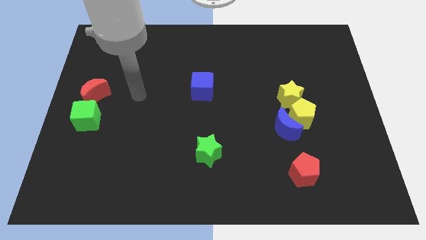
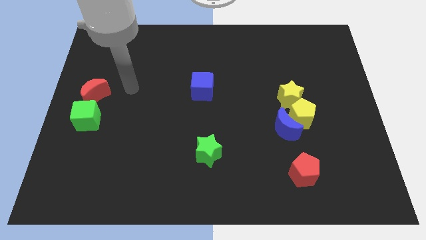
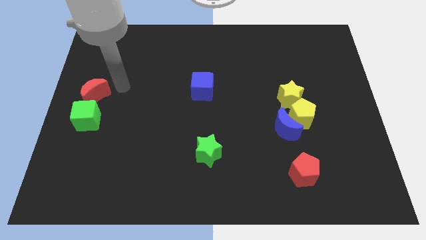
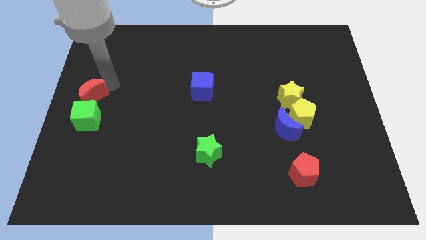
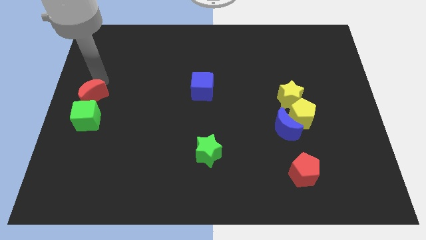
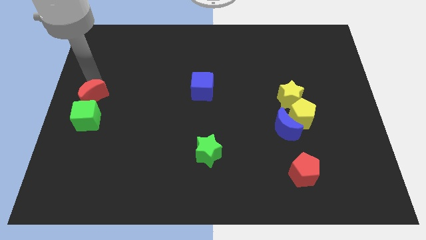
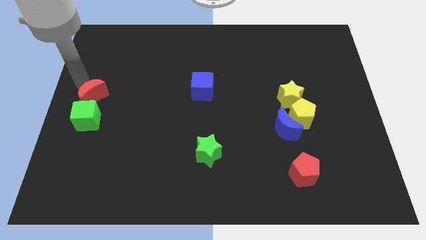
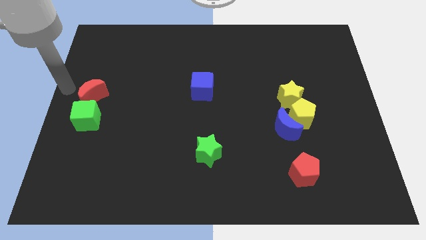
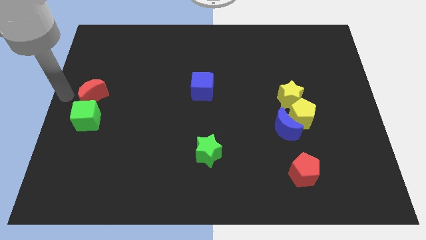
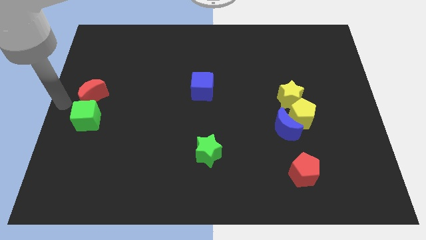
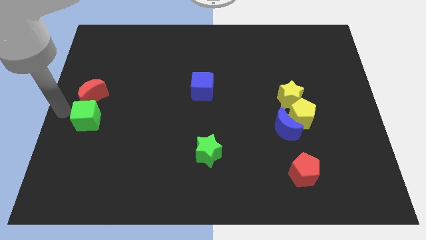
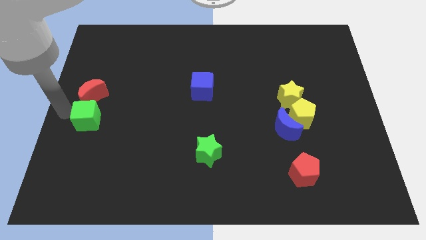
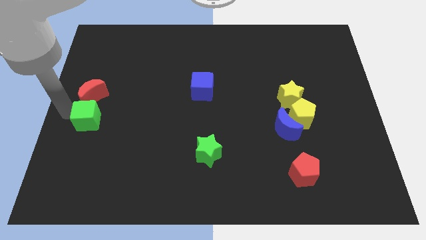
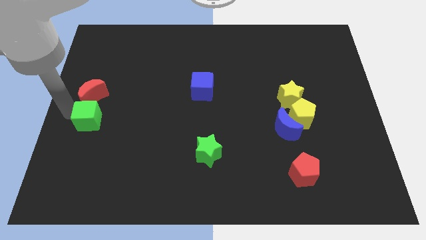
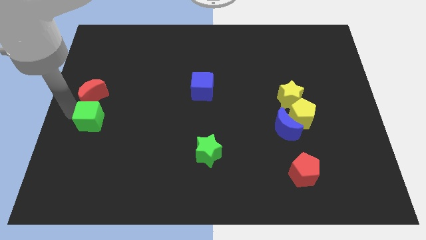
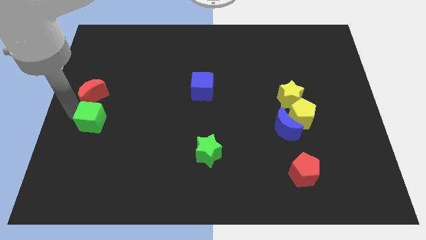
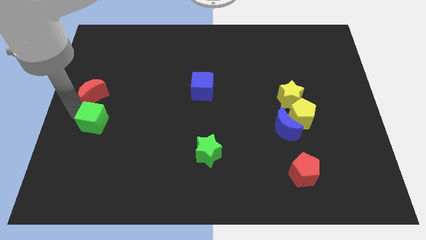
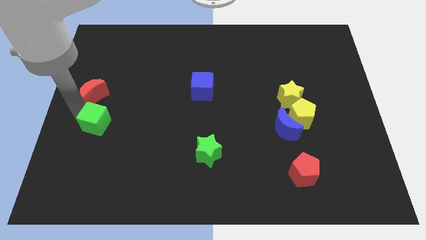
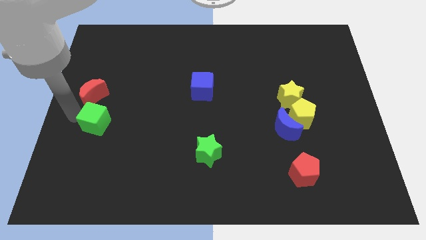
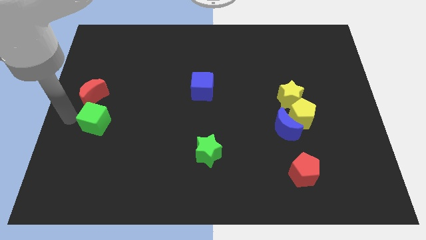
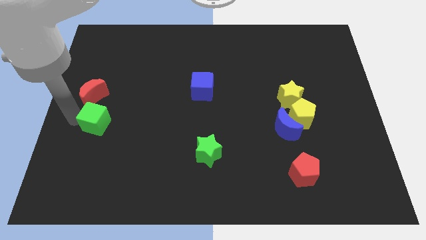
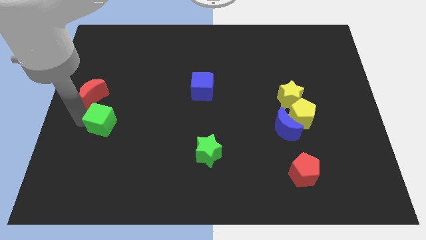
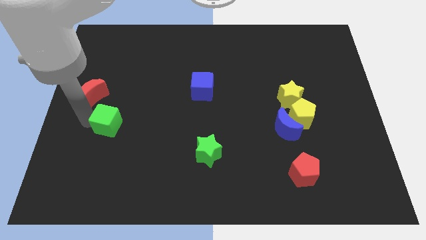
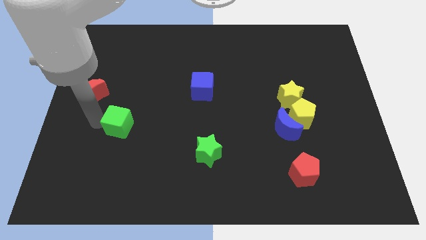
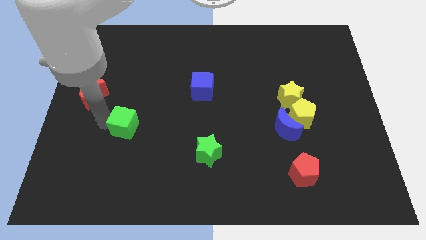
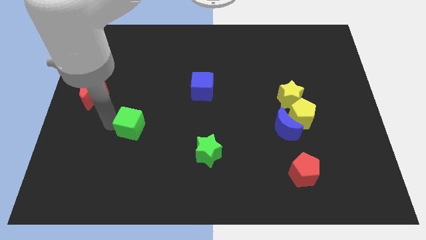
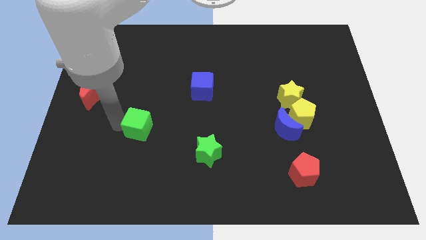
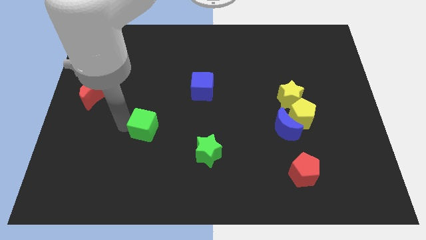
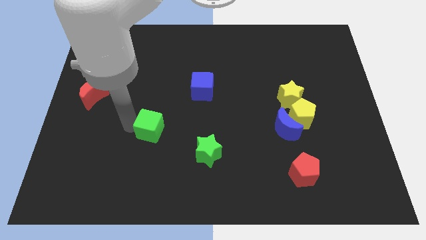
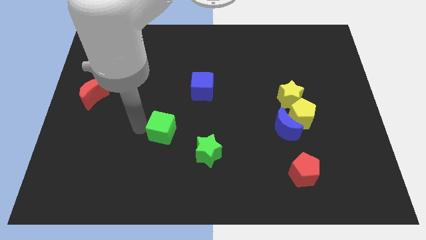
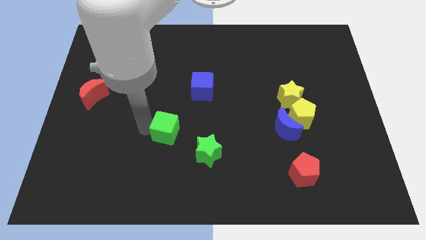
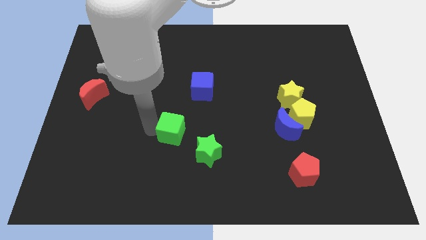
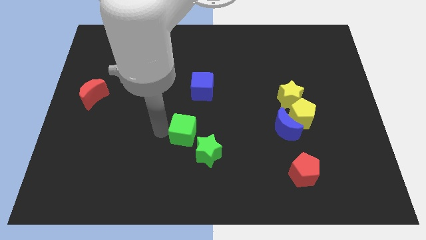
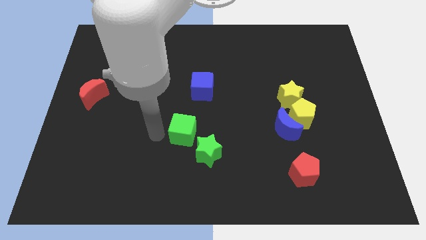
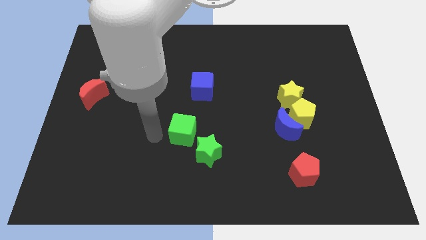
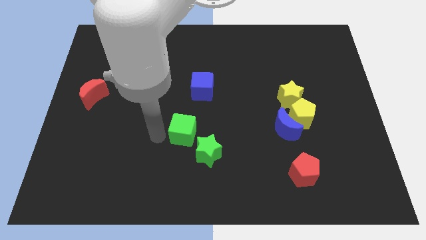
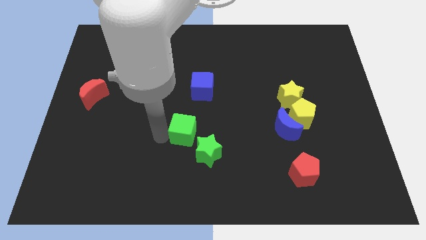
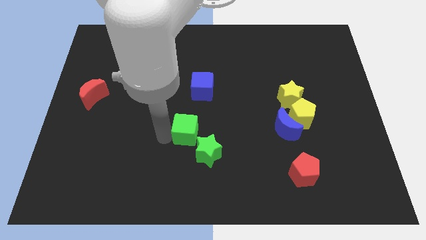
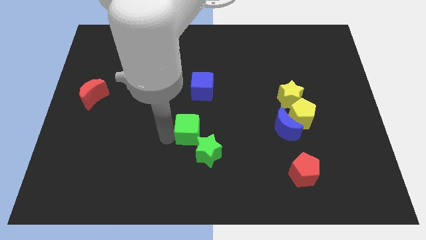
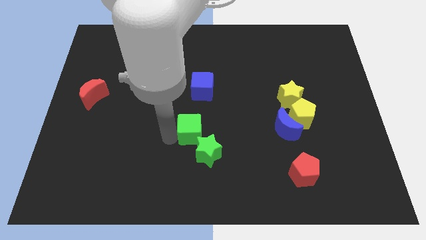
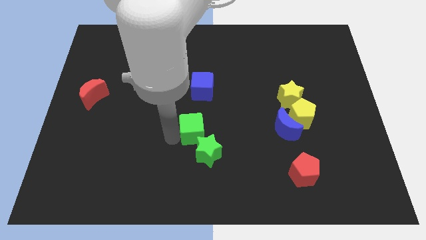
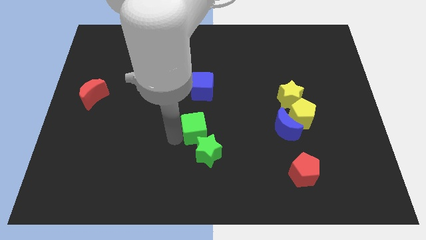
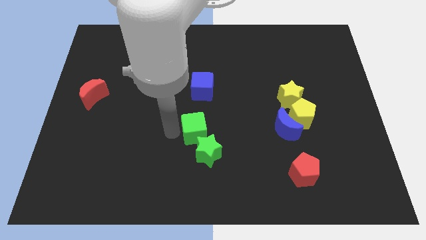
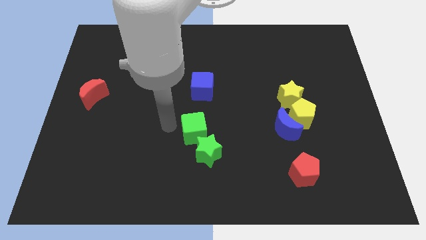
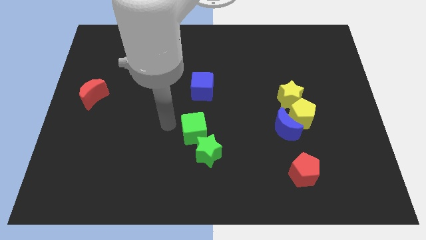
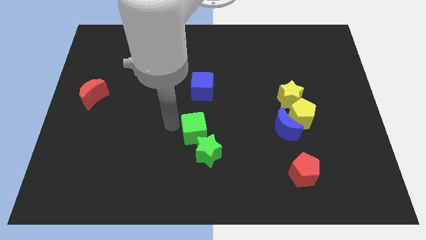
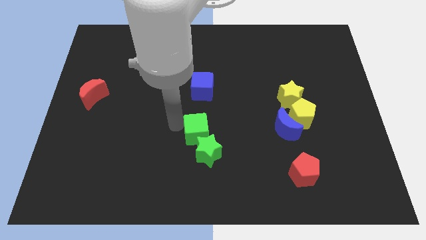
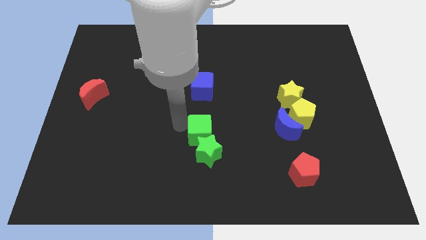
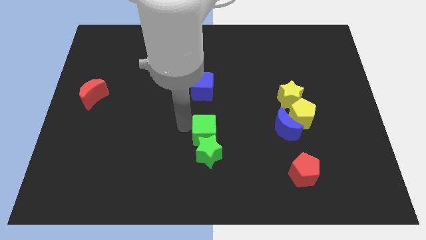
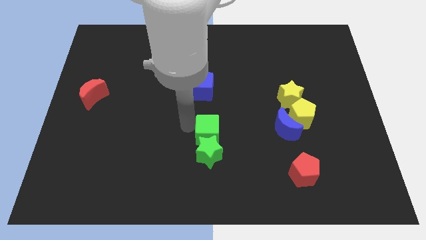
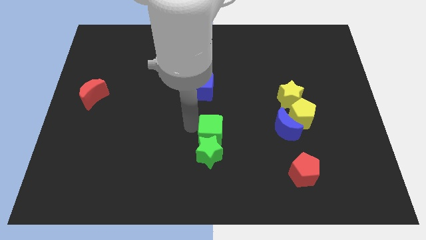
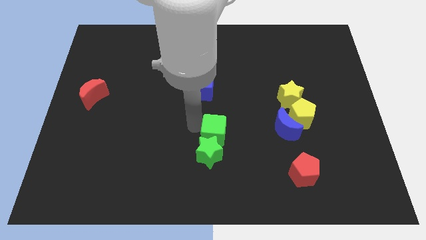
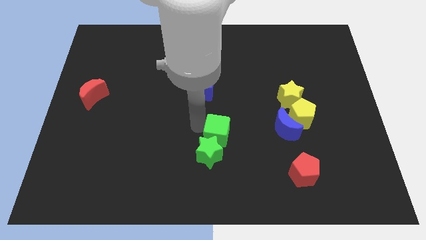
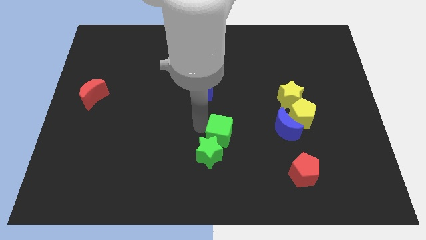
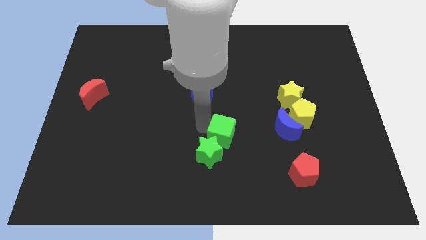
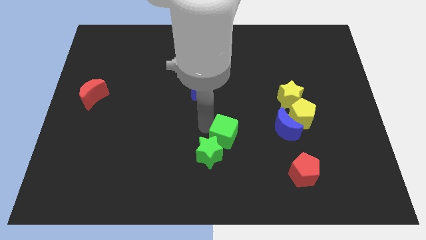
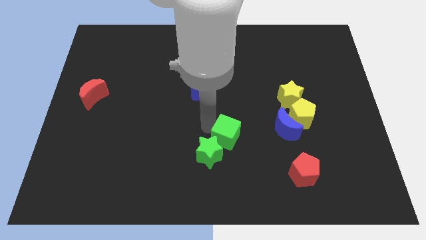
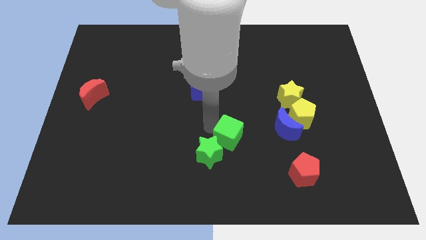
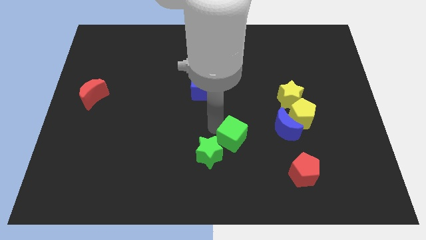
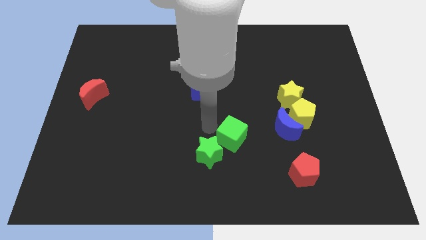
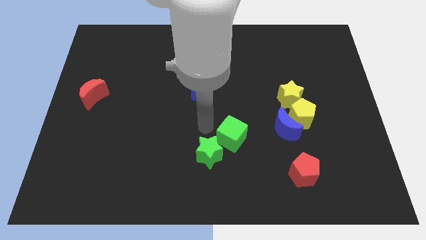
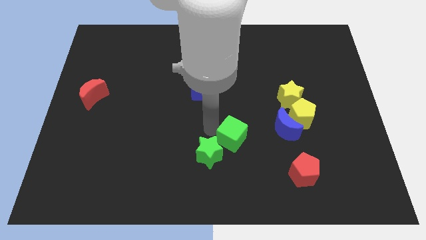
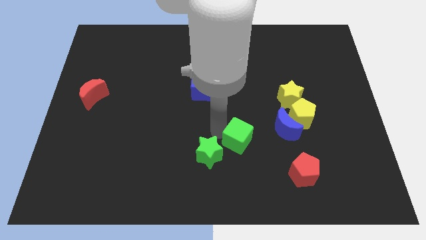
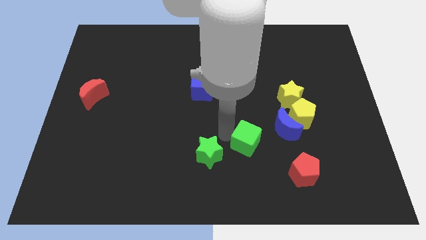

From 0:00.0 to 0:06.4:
slide the green cube to the bottom left of the blue moon

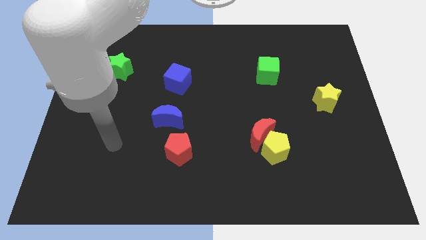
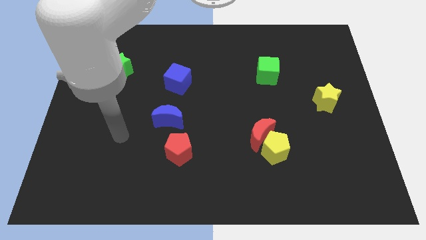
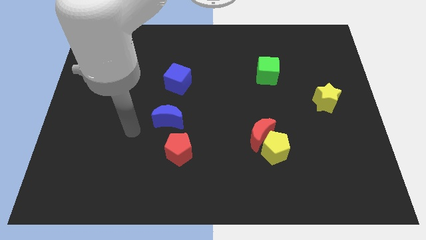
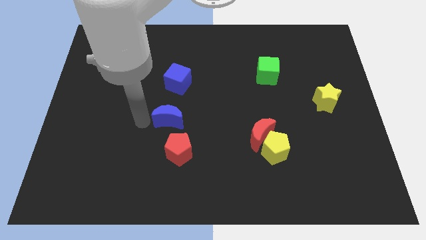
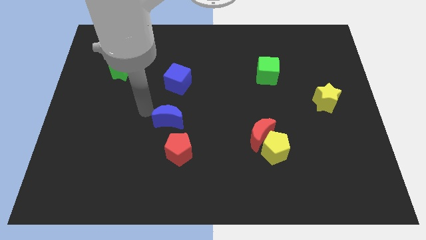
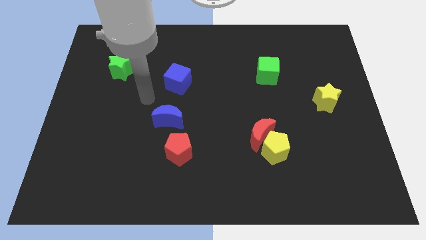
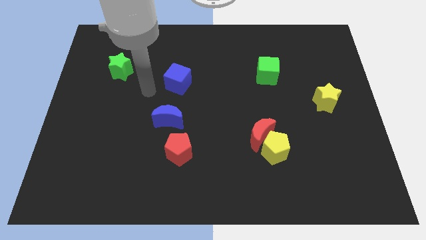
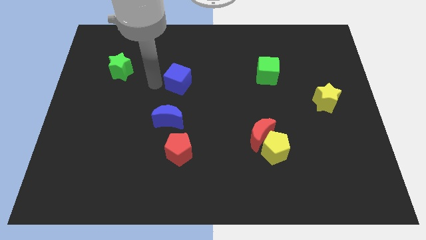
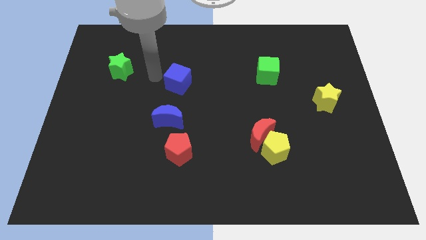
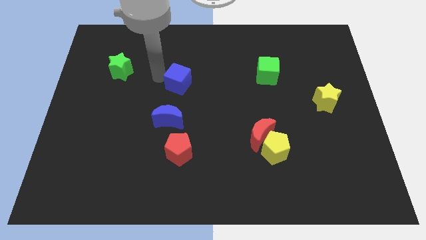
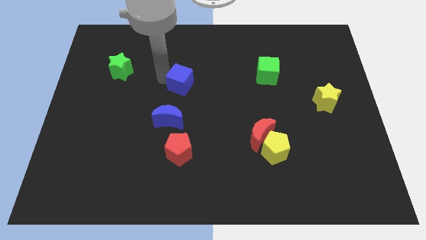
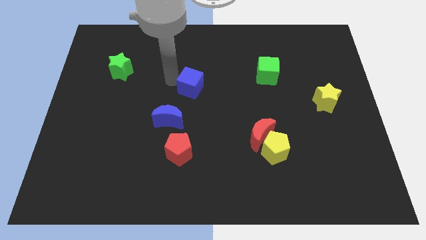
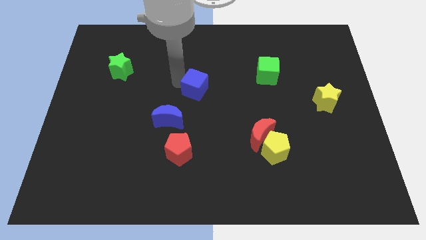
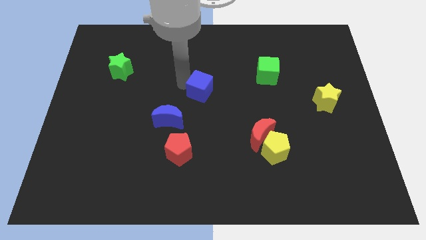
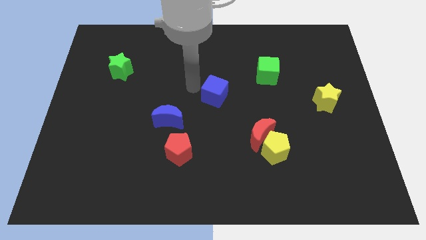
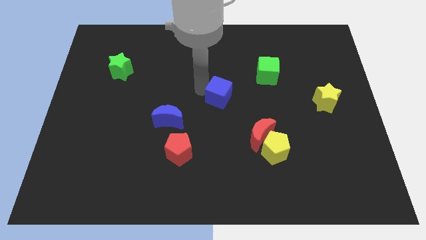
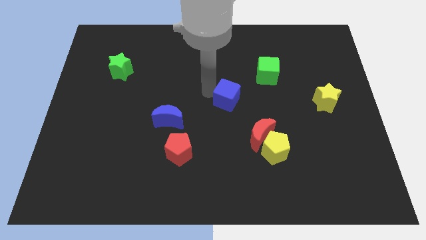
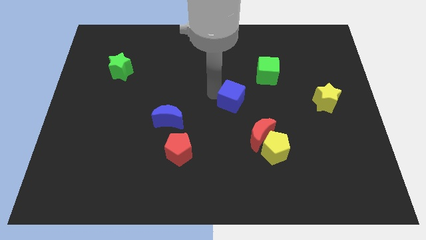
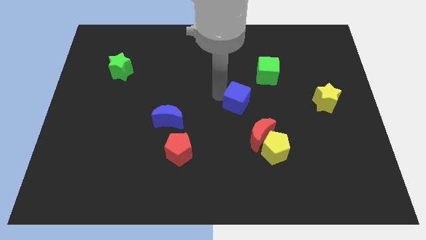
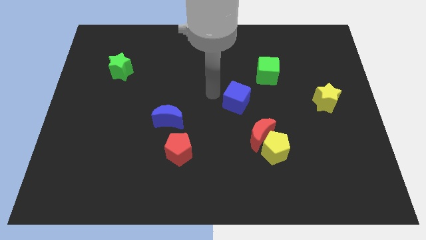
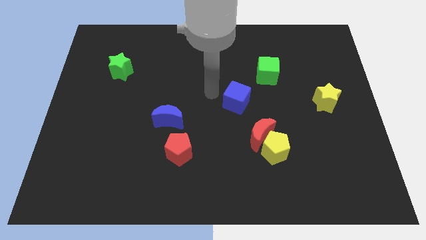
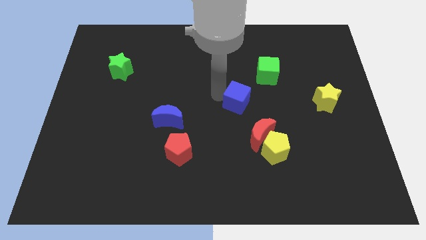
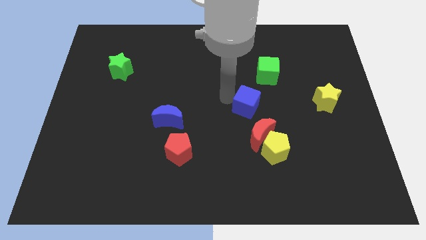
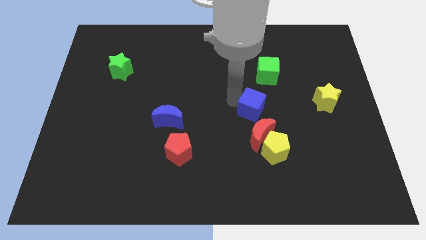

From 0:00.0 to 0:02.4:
move the blue cube to the top side of the yellow pentagon
